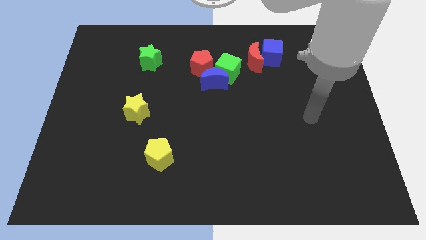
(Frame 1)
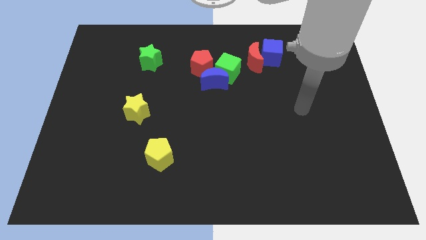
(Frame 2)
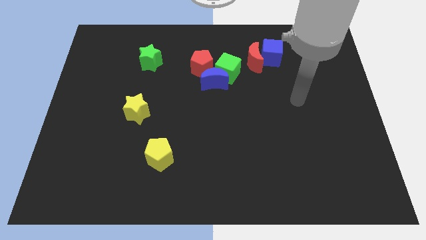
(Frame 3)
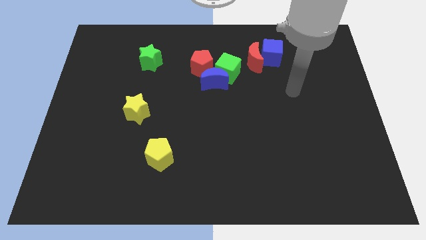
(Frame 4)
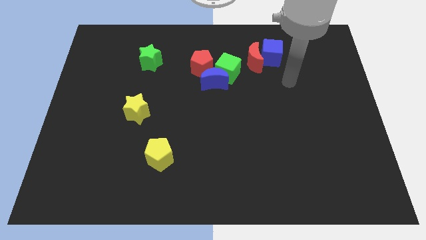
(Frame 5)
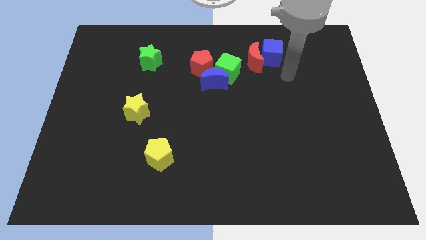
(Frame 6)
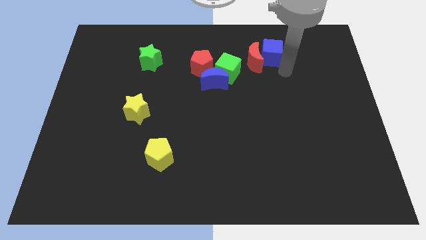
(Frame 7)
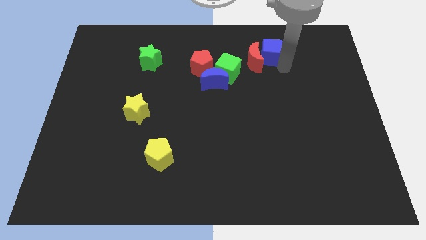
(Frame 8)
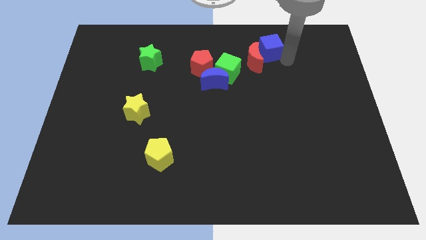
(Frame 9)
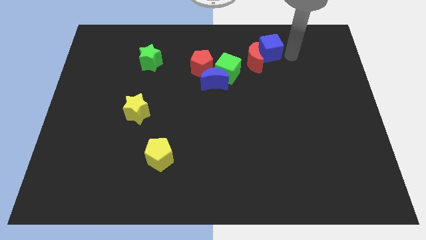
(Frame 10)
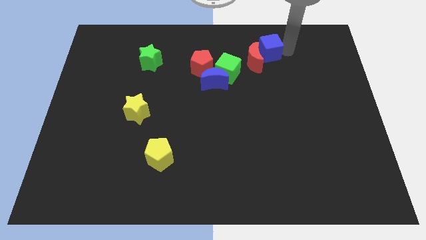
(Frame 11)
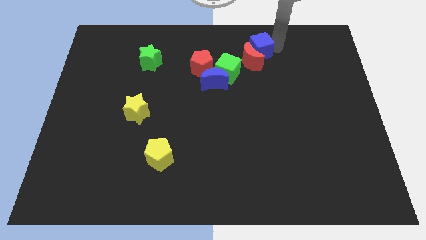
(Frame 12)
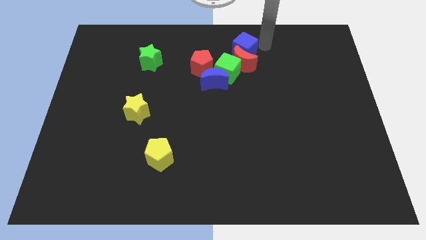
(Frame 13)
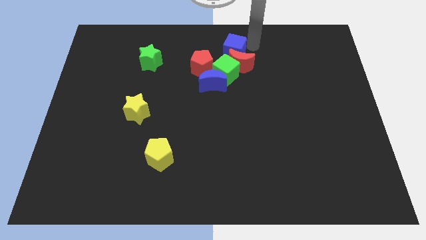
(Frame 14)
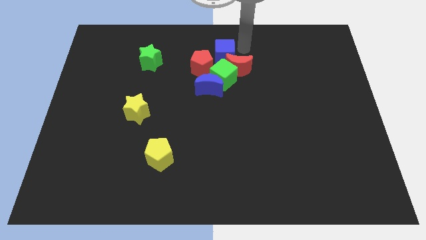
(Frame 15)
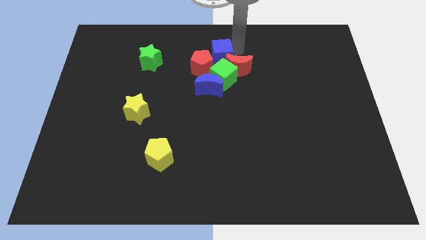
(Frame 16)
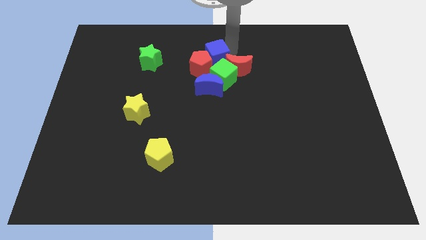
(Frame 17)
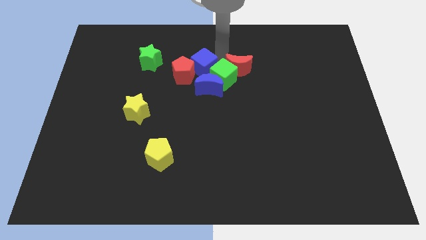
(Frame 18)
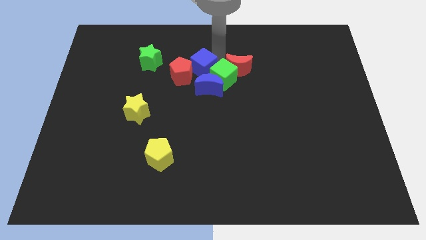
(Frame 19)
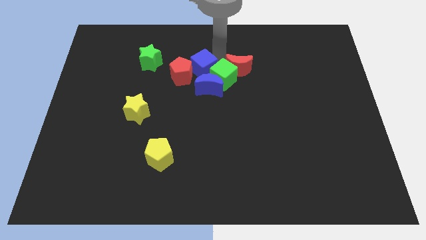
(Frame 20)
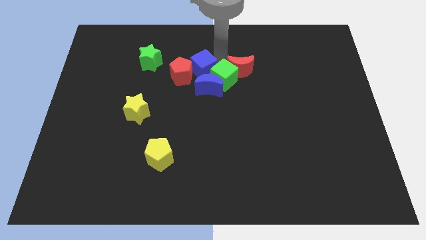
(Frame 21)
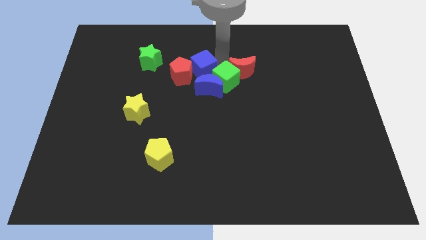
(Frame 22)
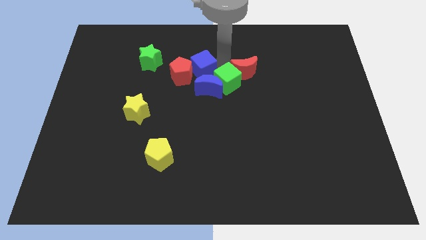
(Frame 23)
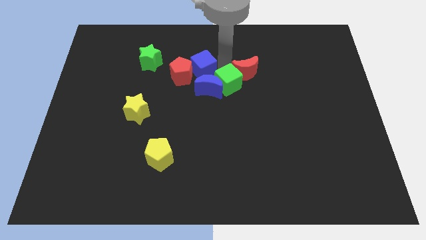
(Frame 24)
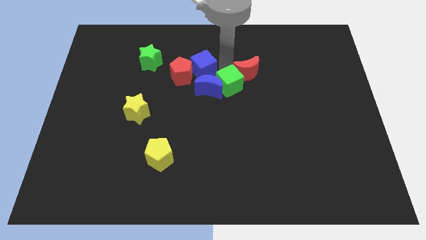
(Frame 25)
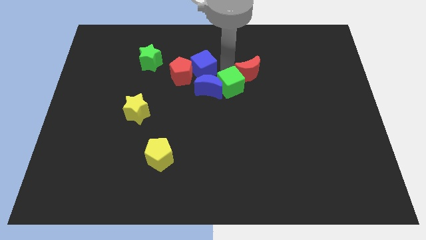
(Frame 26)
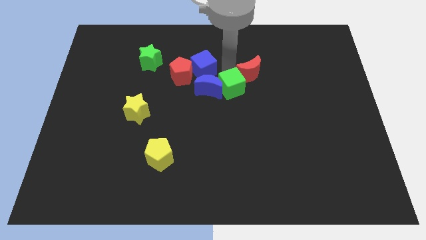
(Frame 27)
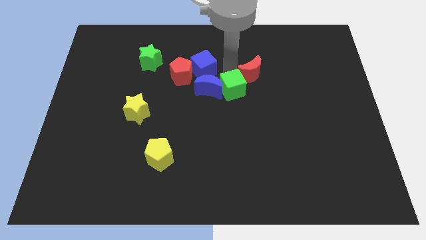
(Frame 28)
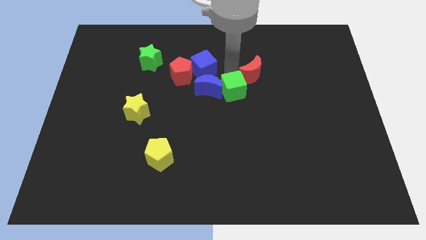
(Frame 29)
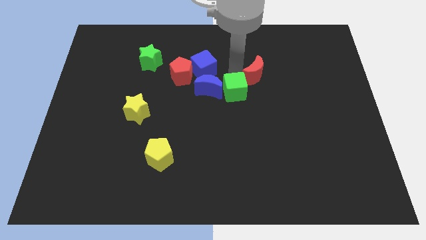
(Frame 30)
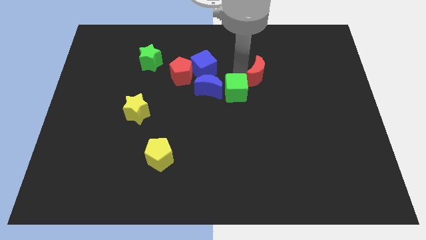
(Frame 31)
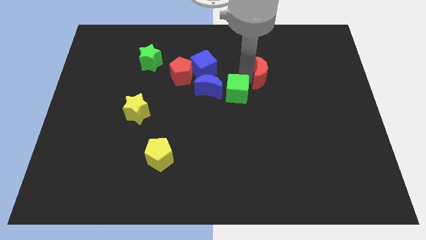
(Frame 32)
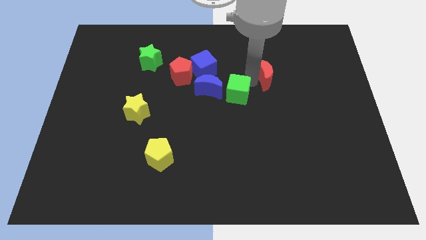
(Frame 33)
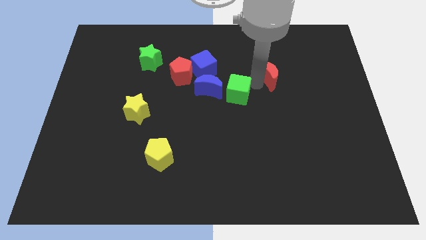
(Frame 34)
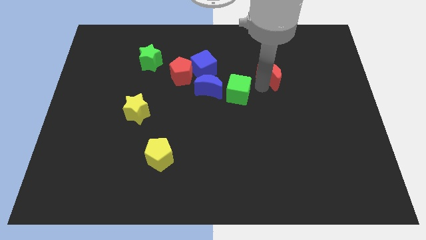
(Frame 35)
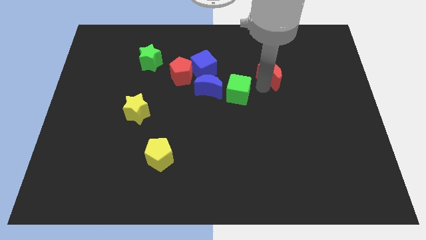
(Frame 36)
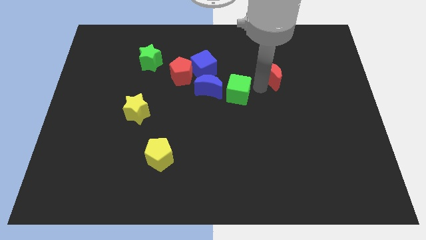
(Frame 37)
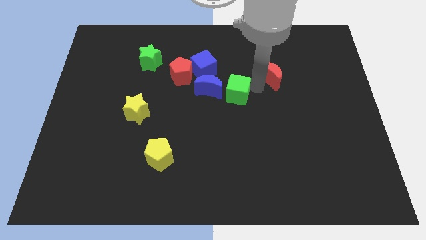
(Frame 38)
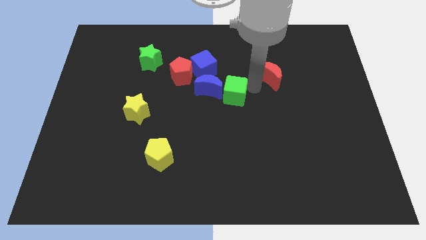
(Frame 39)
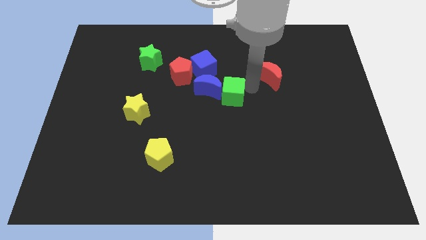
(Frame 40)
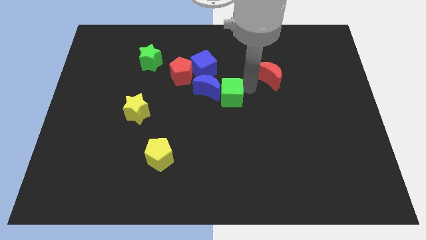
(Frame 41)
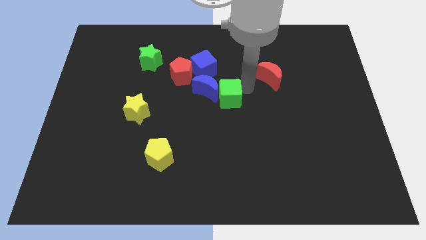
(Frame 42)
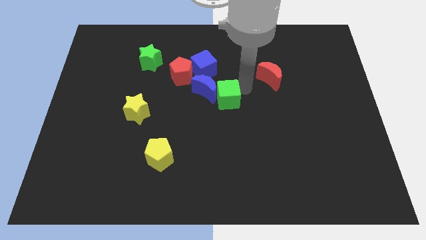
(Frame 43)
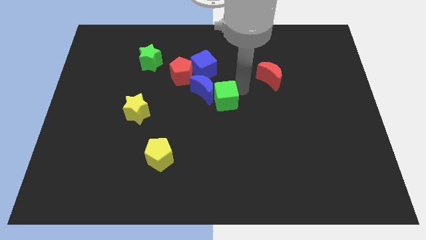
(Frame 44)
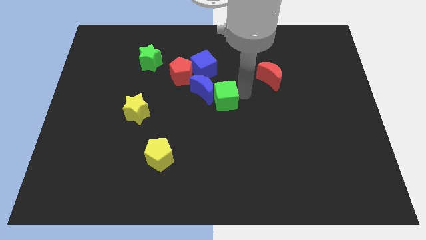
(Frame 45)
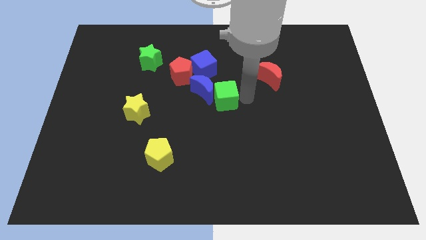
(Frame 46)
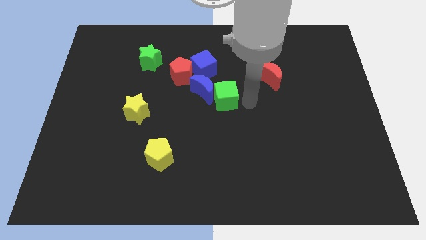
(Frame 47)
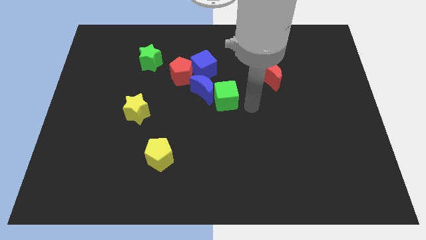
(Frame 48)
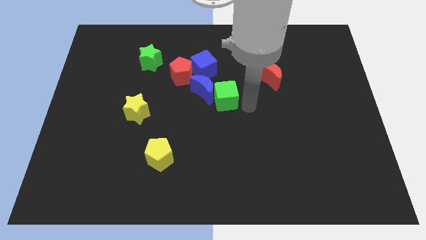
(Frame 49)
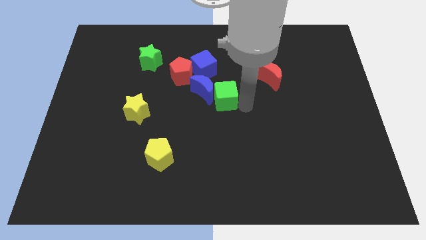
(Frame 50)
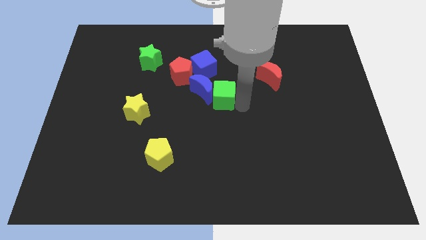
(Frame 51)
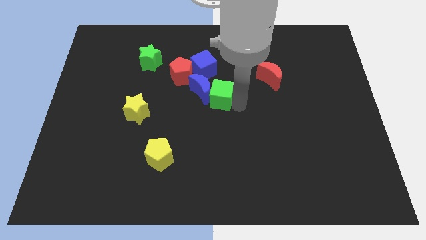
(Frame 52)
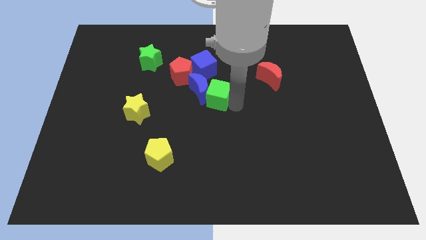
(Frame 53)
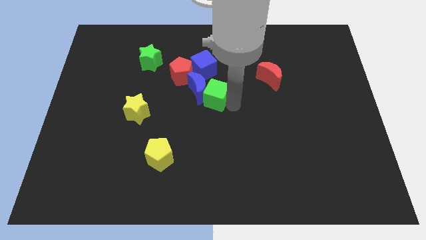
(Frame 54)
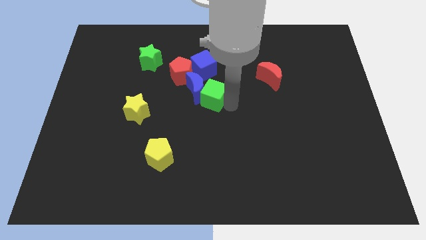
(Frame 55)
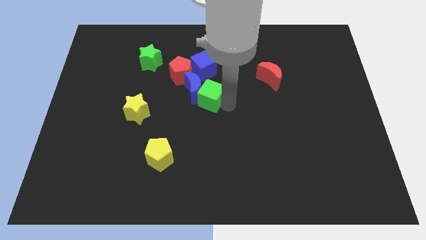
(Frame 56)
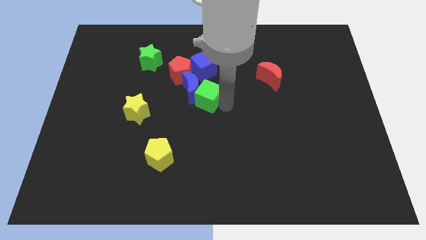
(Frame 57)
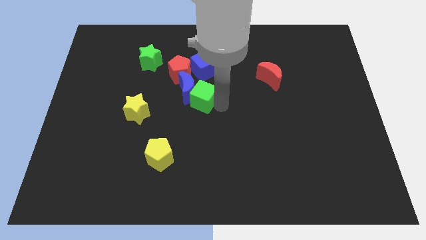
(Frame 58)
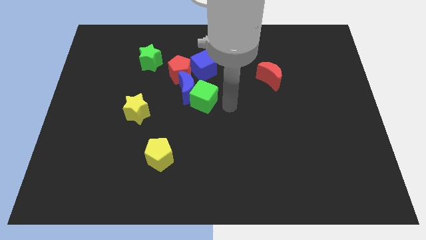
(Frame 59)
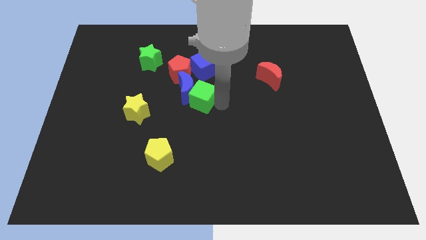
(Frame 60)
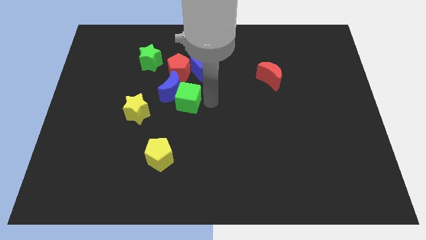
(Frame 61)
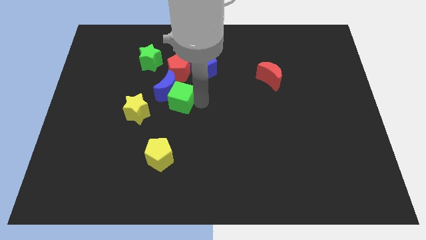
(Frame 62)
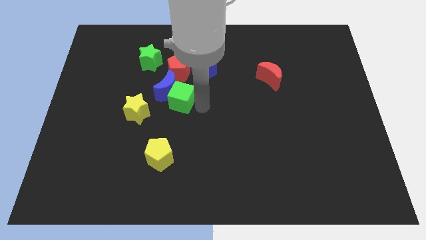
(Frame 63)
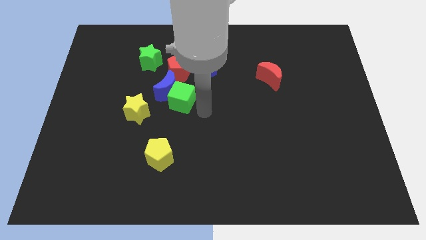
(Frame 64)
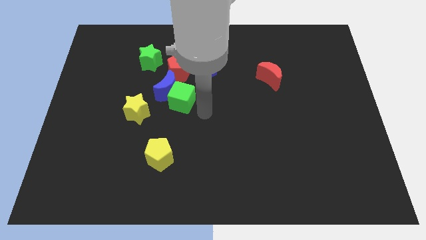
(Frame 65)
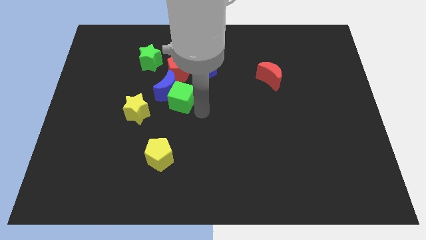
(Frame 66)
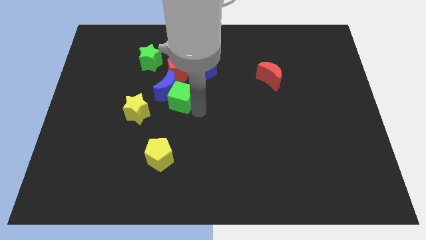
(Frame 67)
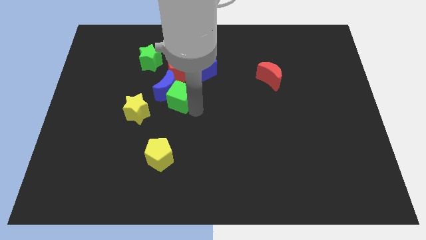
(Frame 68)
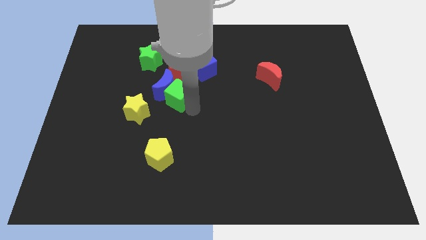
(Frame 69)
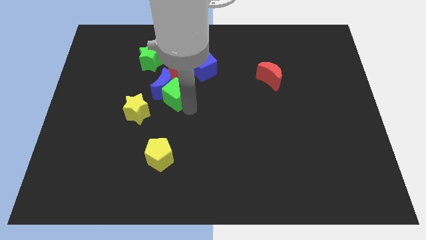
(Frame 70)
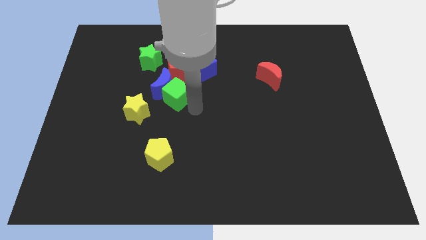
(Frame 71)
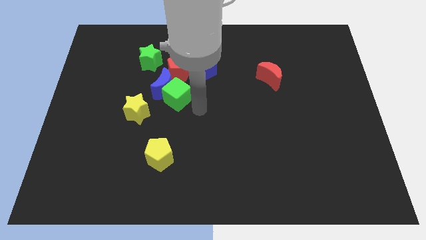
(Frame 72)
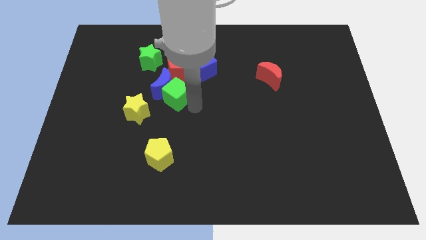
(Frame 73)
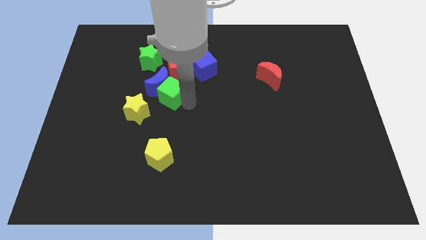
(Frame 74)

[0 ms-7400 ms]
move the green cube to the bottom left side of the red pentagon
